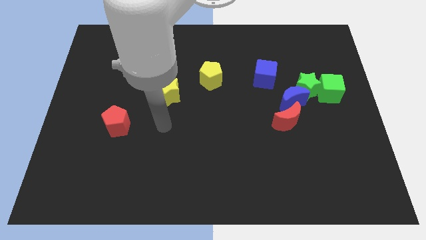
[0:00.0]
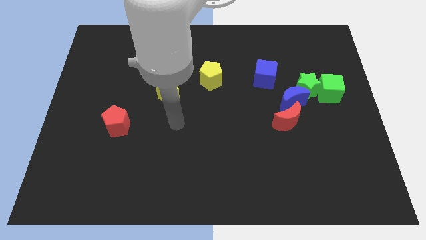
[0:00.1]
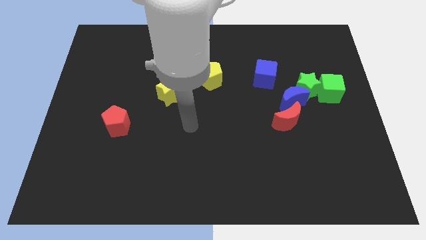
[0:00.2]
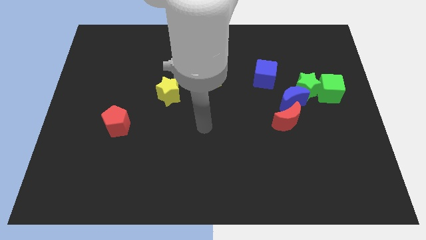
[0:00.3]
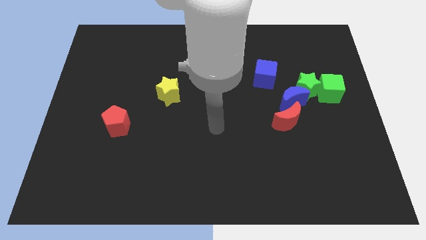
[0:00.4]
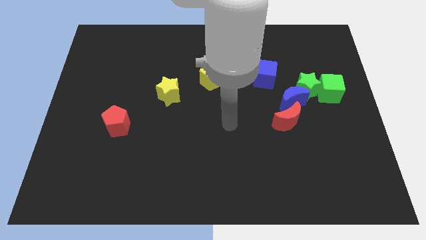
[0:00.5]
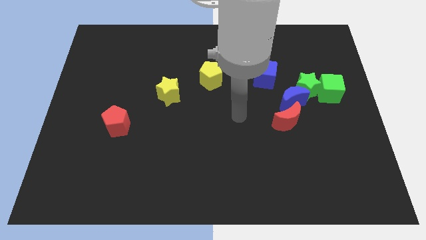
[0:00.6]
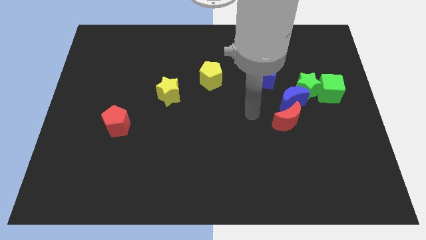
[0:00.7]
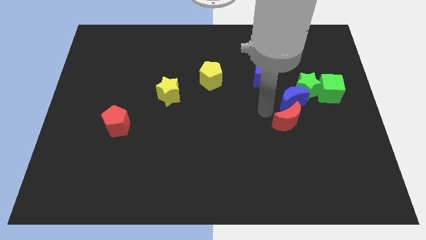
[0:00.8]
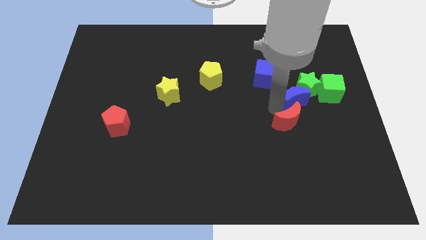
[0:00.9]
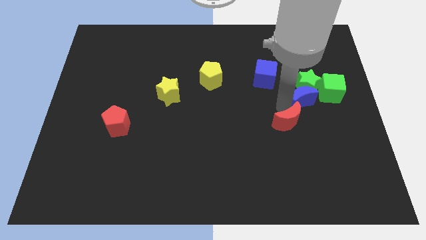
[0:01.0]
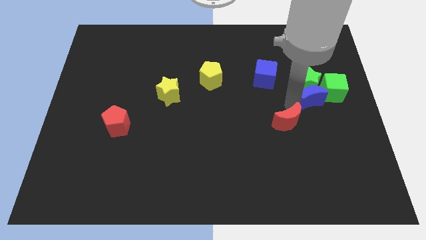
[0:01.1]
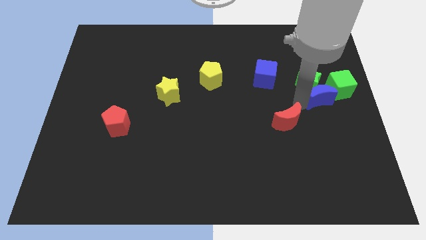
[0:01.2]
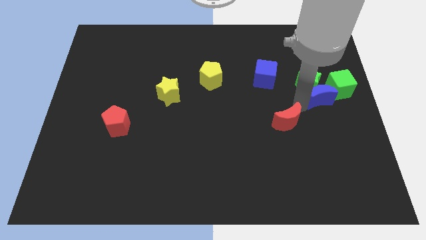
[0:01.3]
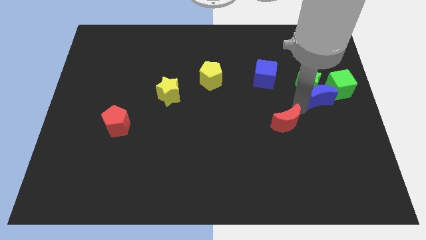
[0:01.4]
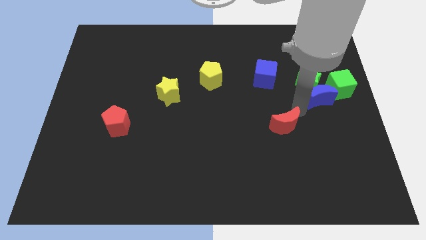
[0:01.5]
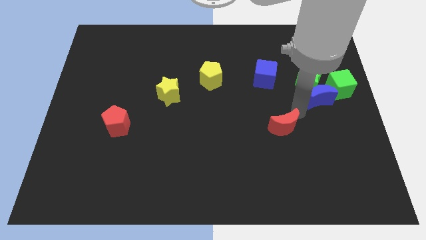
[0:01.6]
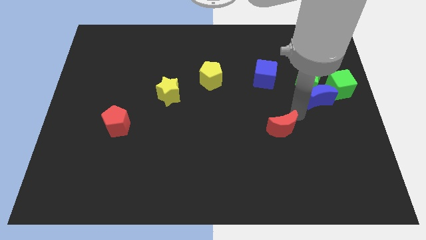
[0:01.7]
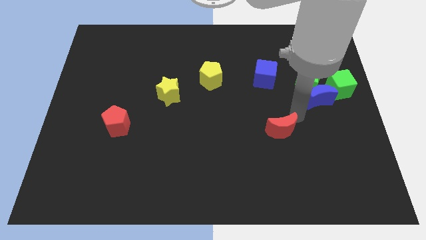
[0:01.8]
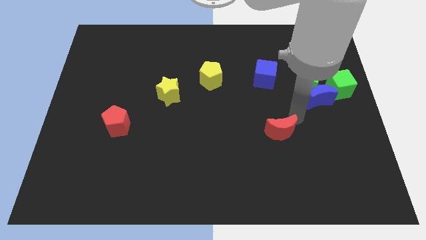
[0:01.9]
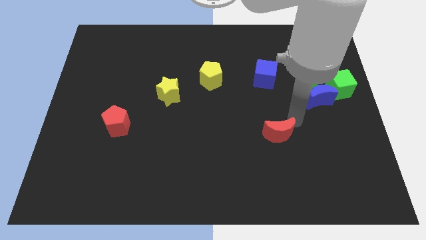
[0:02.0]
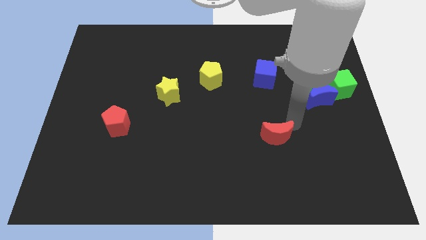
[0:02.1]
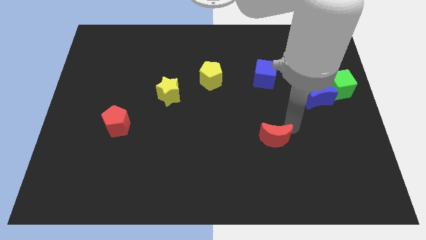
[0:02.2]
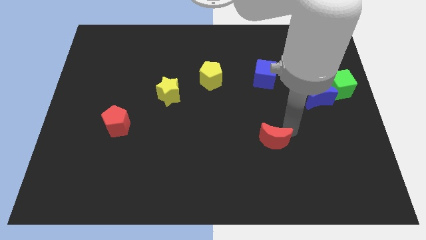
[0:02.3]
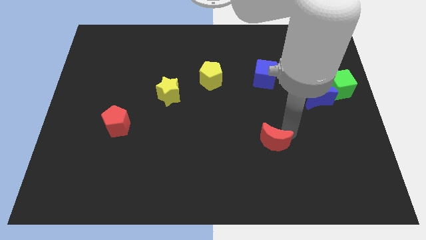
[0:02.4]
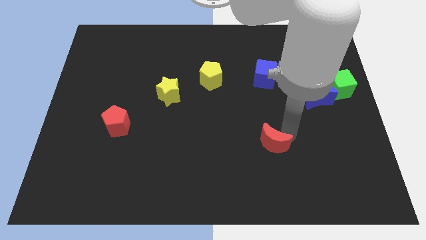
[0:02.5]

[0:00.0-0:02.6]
slightly move the red moon down and left

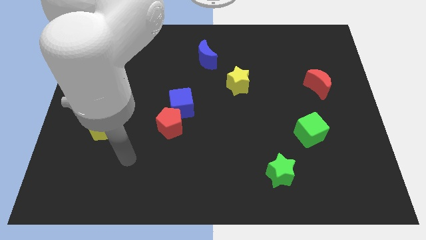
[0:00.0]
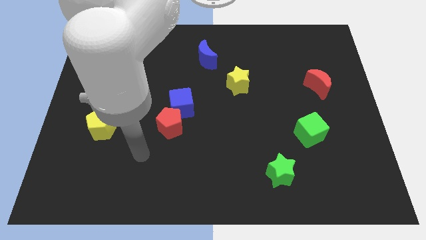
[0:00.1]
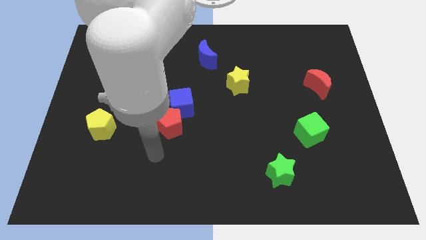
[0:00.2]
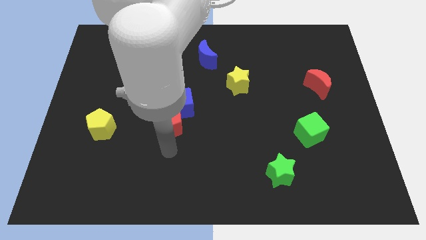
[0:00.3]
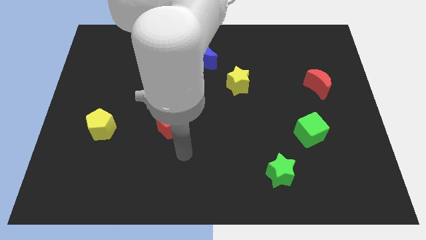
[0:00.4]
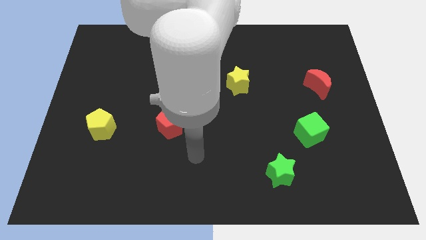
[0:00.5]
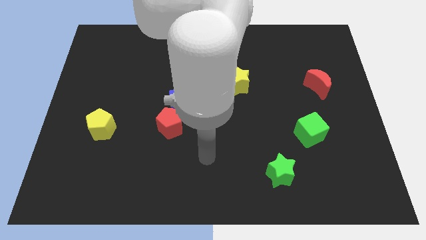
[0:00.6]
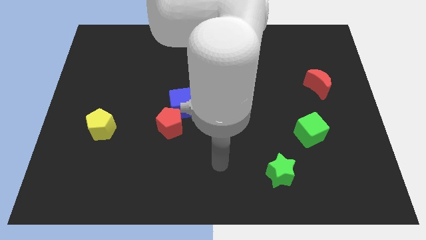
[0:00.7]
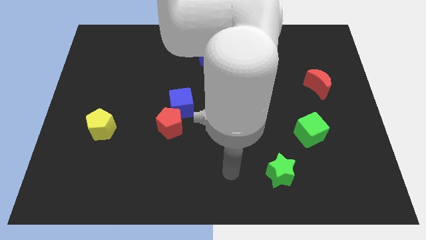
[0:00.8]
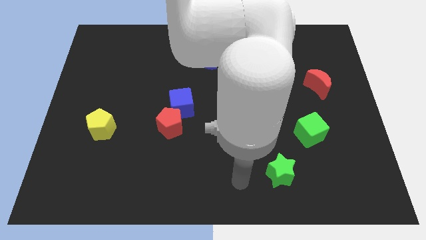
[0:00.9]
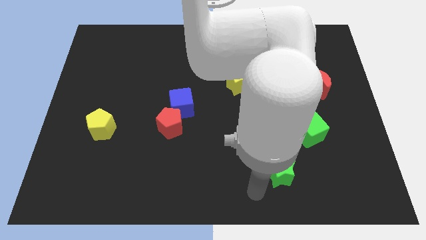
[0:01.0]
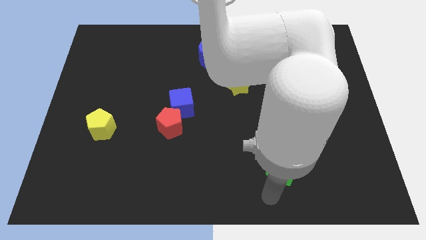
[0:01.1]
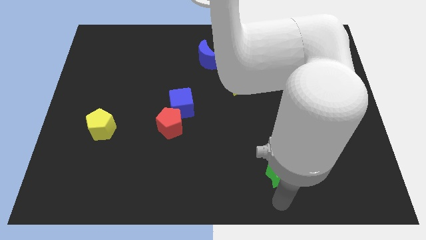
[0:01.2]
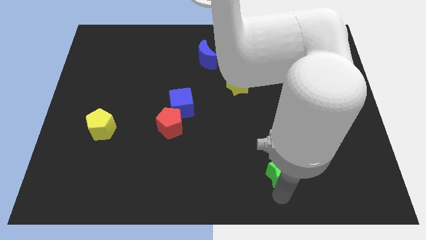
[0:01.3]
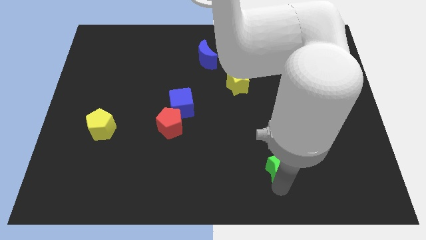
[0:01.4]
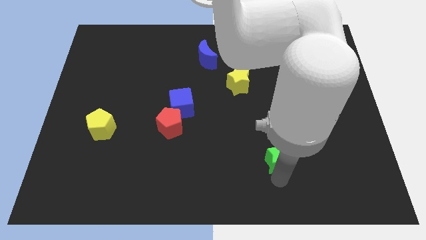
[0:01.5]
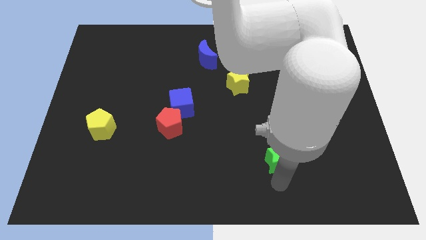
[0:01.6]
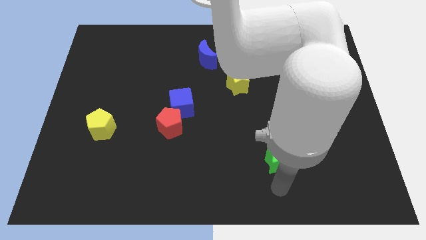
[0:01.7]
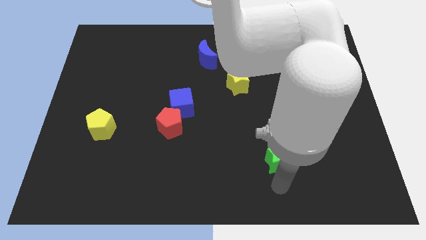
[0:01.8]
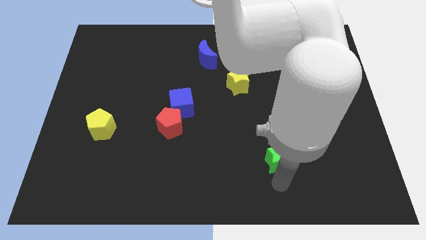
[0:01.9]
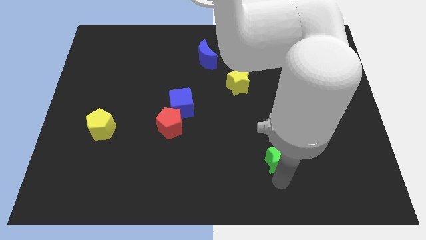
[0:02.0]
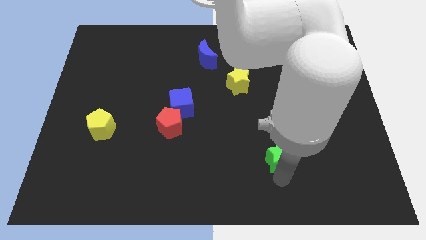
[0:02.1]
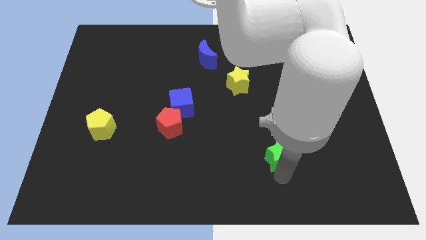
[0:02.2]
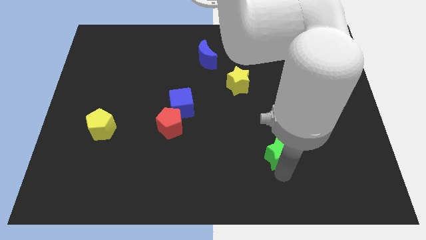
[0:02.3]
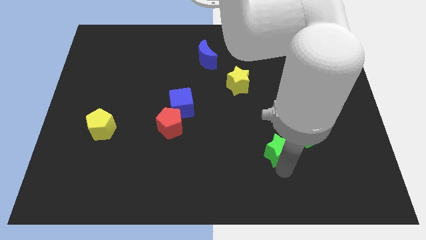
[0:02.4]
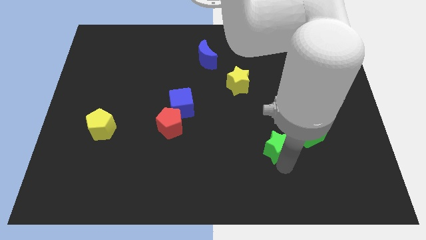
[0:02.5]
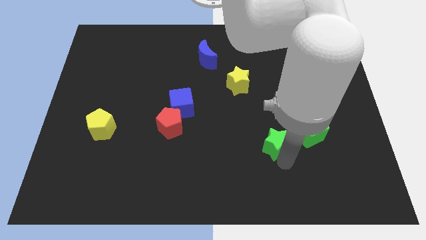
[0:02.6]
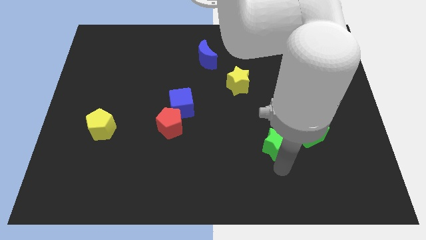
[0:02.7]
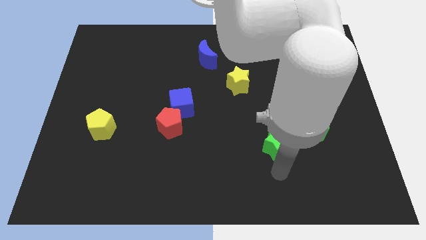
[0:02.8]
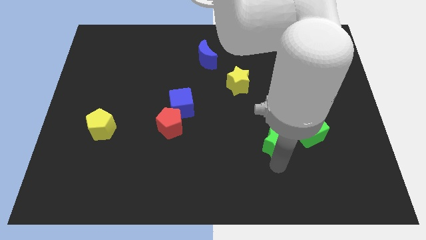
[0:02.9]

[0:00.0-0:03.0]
push the green star somewhat up

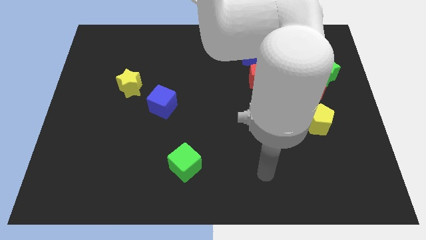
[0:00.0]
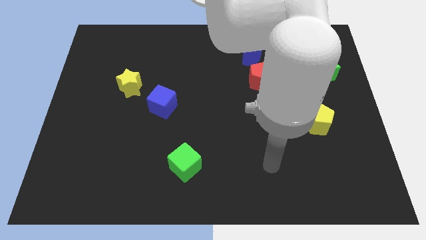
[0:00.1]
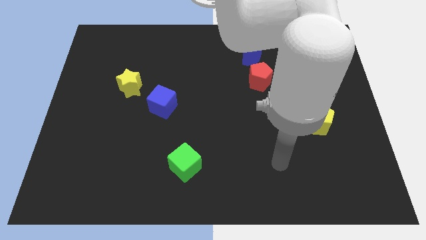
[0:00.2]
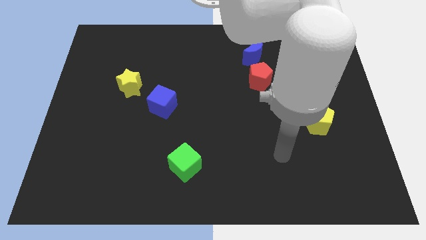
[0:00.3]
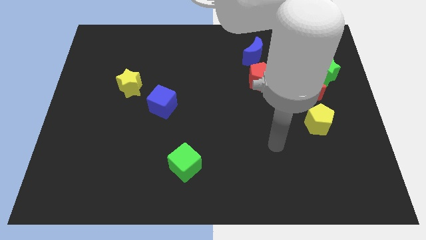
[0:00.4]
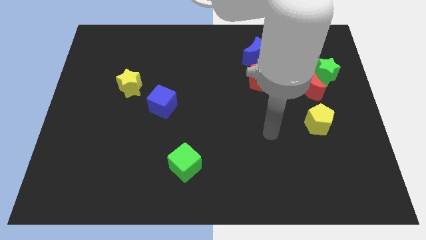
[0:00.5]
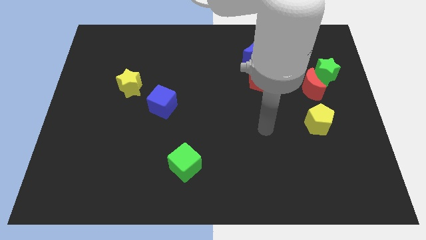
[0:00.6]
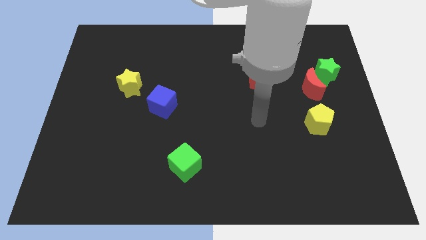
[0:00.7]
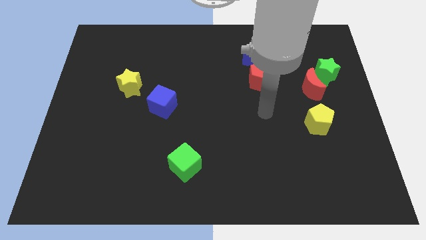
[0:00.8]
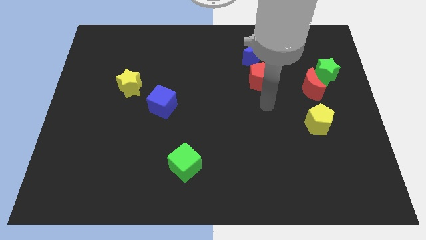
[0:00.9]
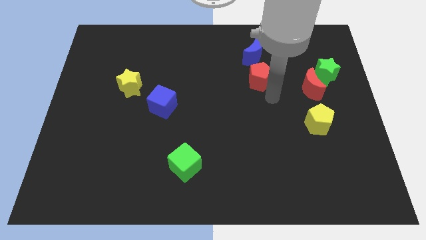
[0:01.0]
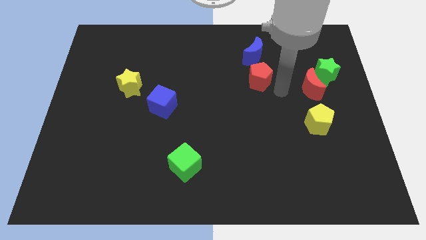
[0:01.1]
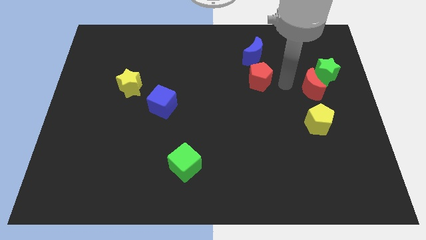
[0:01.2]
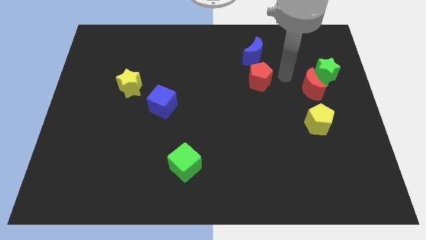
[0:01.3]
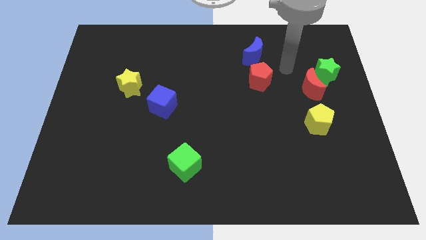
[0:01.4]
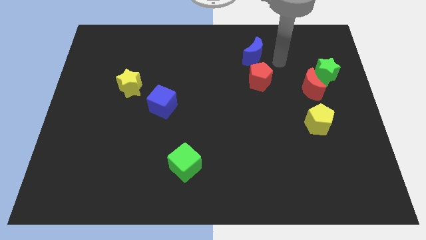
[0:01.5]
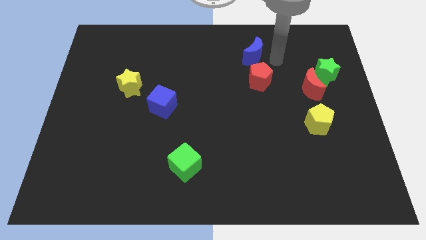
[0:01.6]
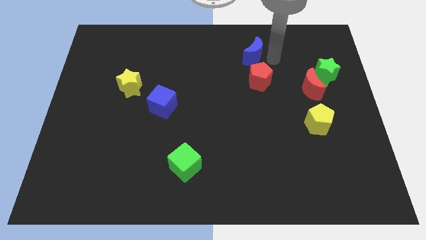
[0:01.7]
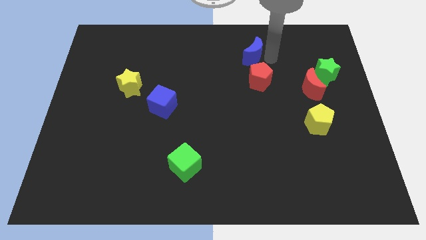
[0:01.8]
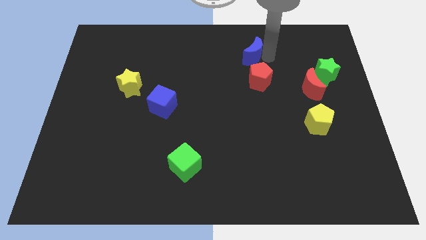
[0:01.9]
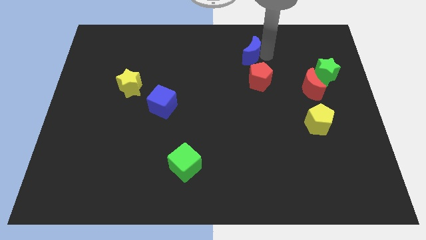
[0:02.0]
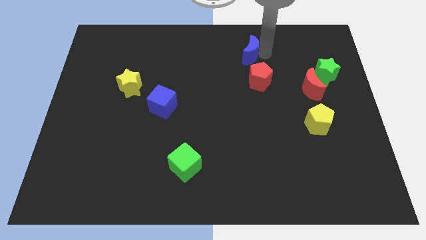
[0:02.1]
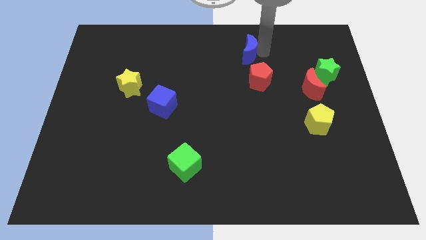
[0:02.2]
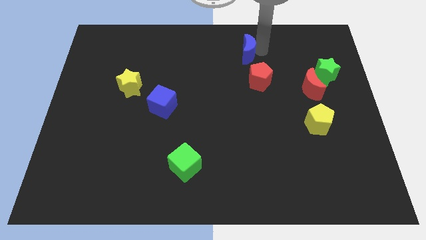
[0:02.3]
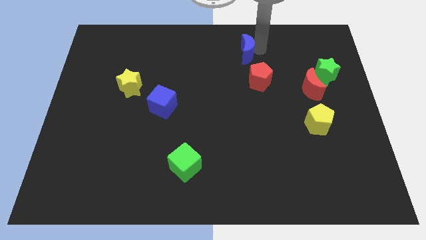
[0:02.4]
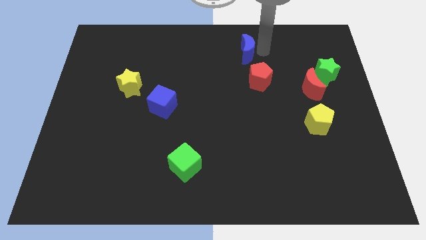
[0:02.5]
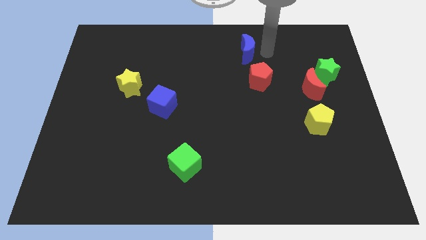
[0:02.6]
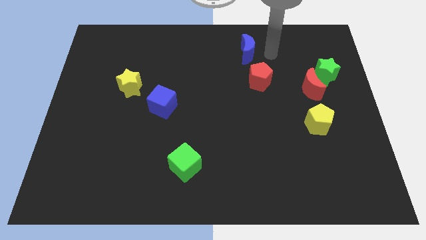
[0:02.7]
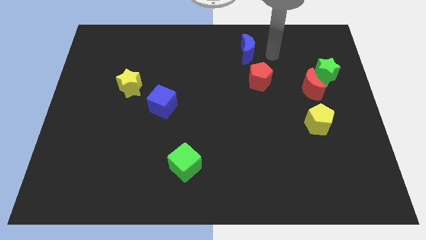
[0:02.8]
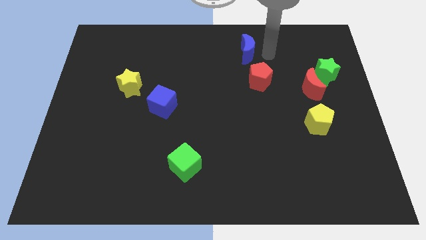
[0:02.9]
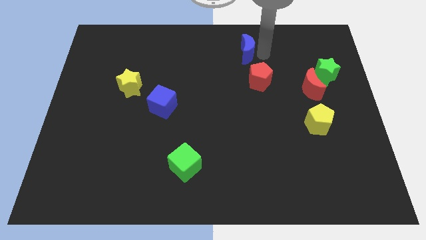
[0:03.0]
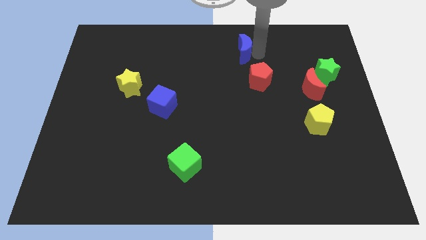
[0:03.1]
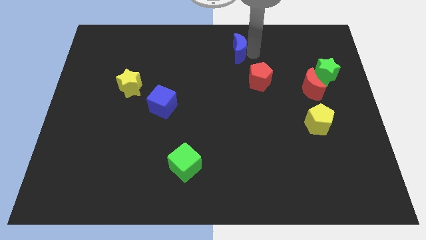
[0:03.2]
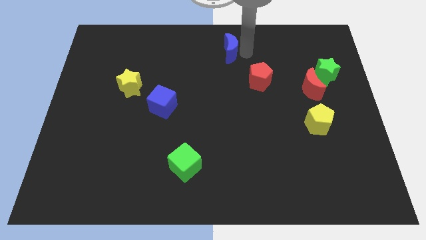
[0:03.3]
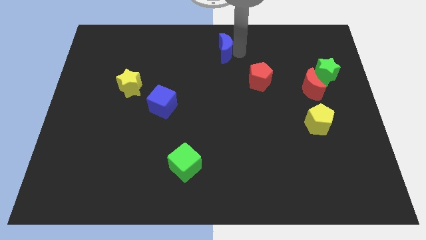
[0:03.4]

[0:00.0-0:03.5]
slide the blue moon left a bit
